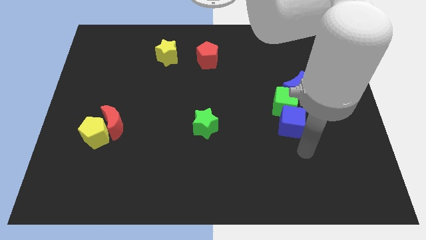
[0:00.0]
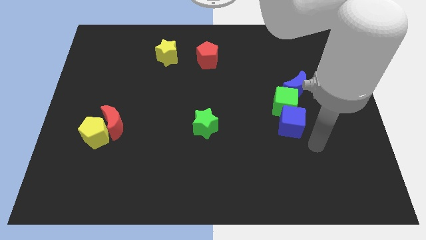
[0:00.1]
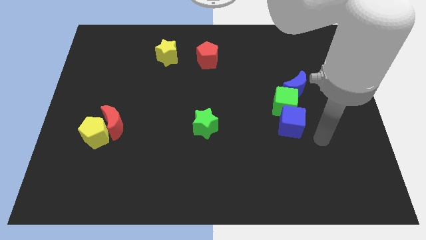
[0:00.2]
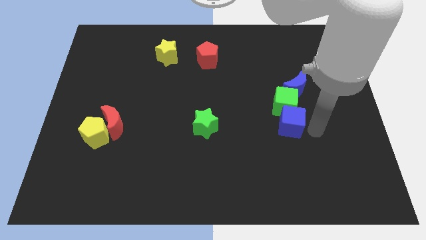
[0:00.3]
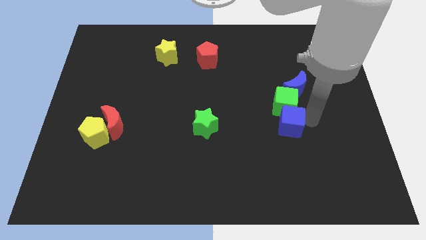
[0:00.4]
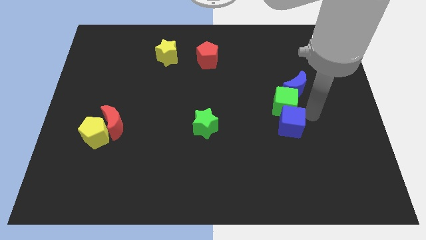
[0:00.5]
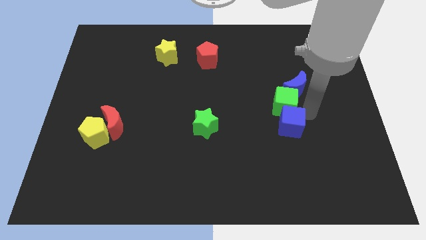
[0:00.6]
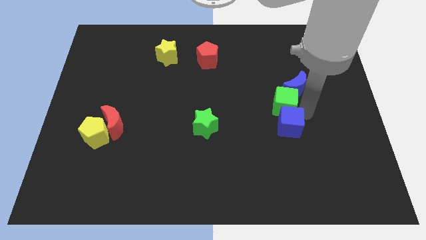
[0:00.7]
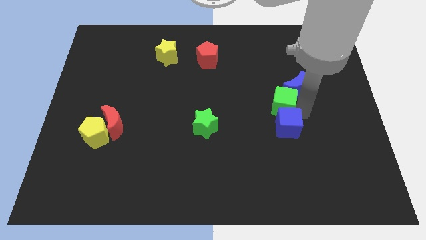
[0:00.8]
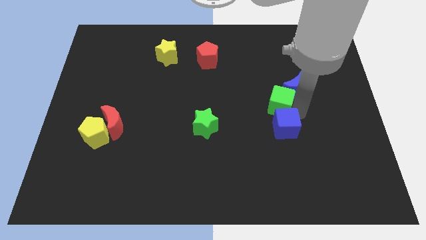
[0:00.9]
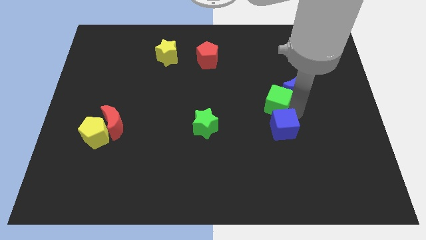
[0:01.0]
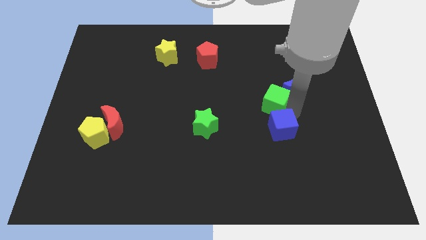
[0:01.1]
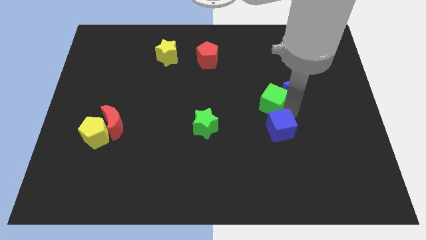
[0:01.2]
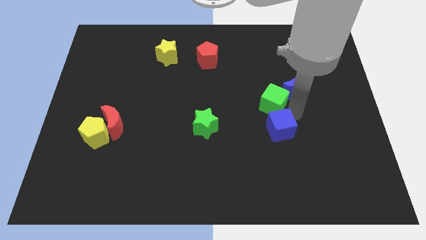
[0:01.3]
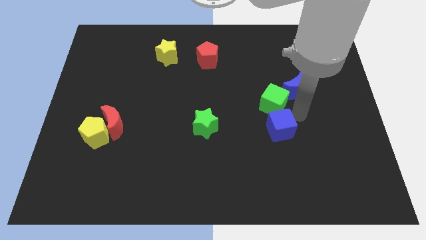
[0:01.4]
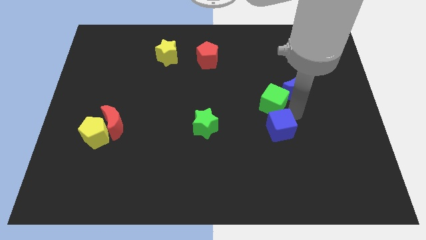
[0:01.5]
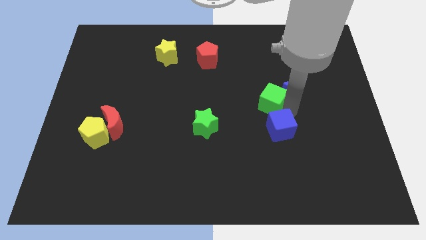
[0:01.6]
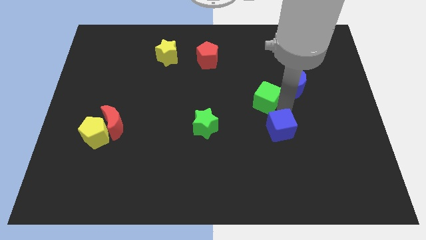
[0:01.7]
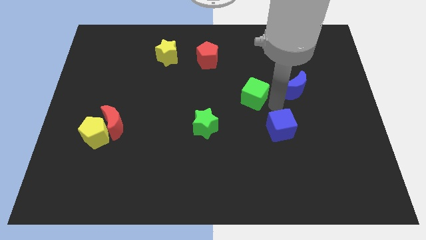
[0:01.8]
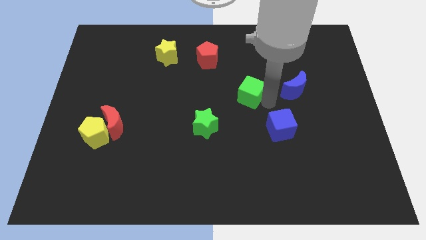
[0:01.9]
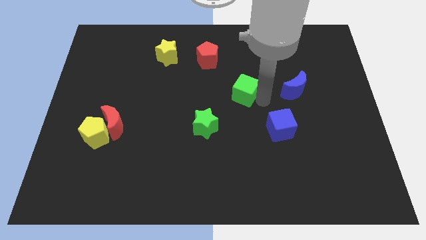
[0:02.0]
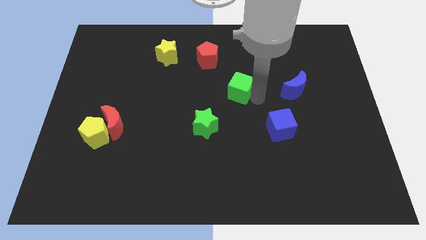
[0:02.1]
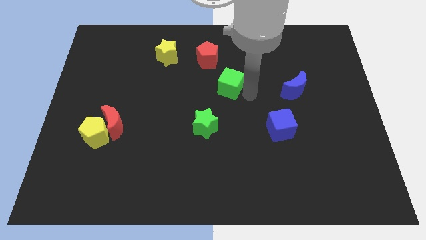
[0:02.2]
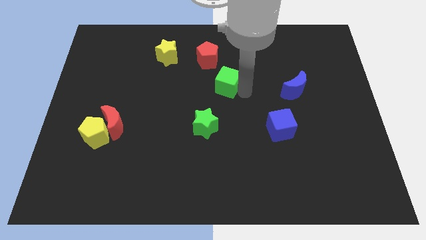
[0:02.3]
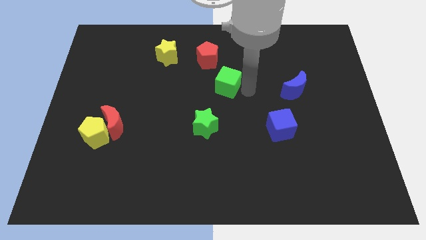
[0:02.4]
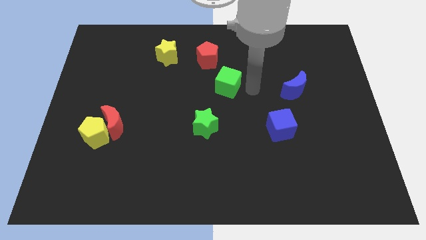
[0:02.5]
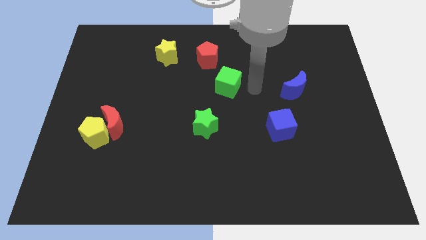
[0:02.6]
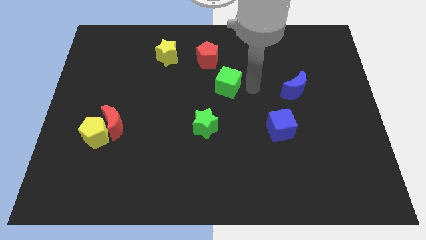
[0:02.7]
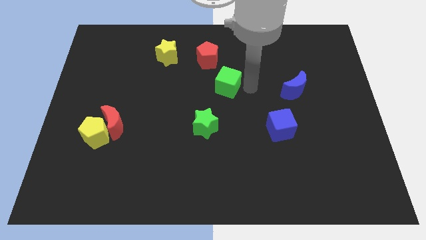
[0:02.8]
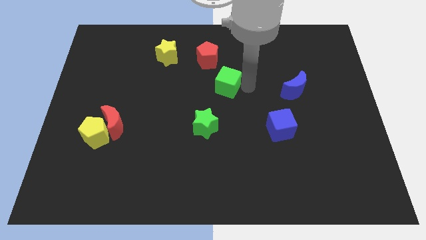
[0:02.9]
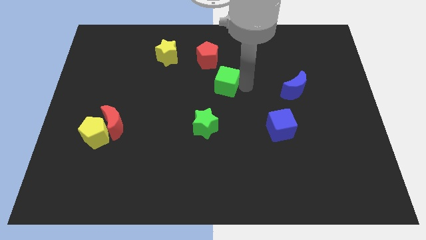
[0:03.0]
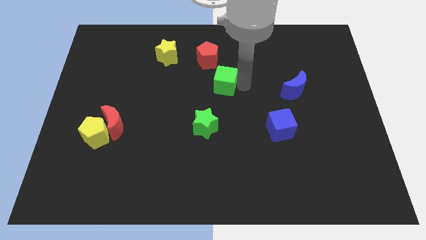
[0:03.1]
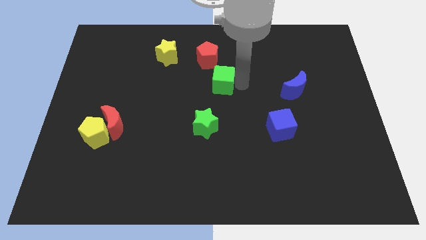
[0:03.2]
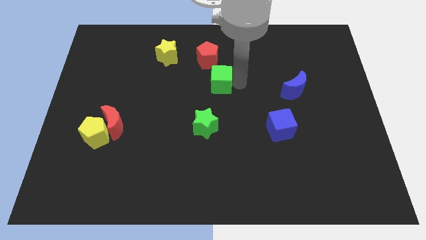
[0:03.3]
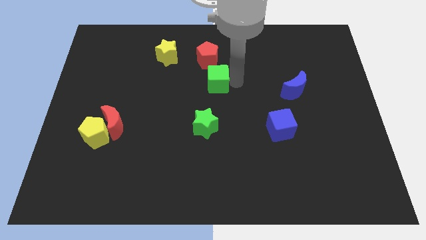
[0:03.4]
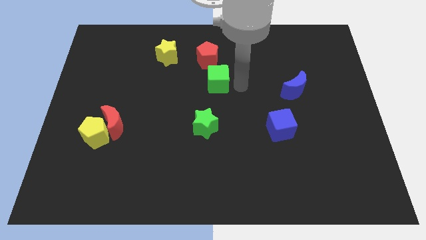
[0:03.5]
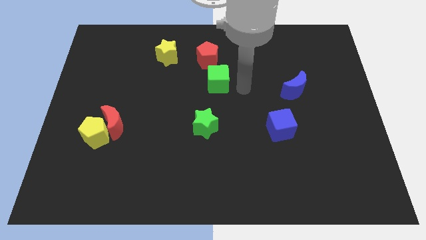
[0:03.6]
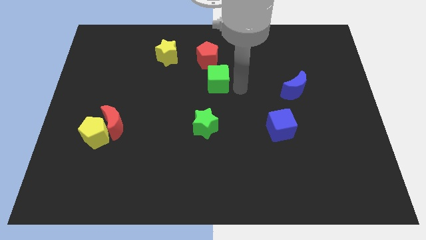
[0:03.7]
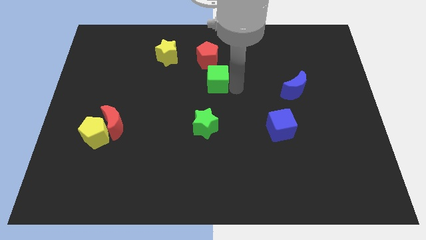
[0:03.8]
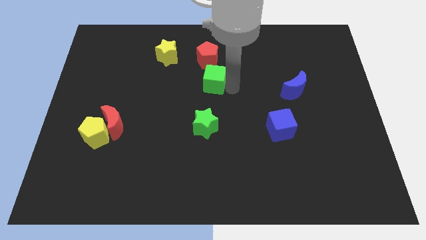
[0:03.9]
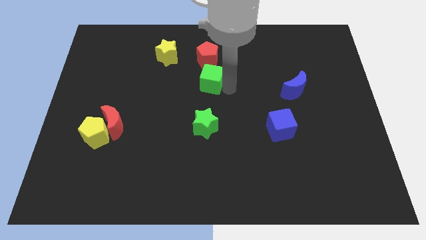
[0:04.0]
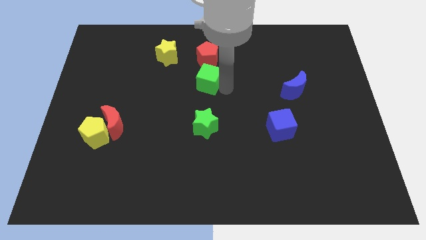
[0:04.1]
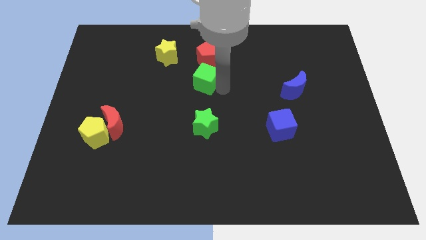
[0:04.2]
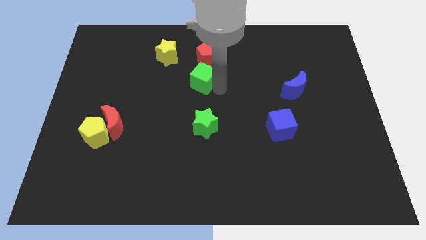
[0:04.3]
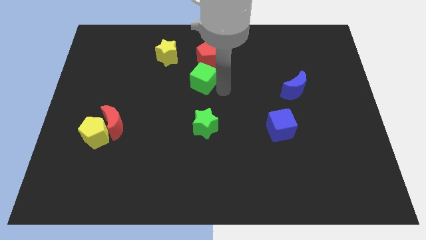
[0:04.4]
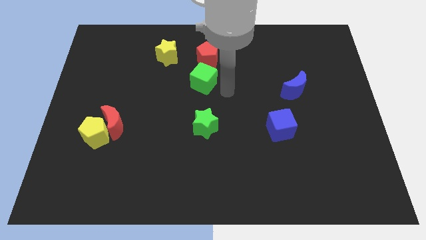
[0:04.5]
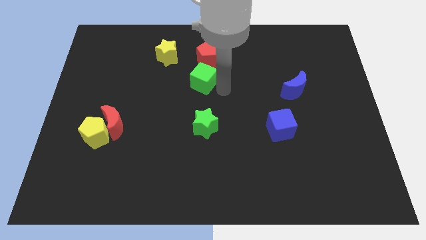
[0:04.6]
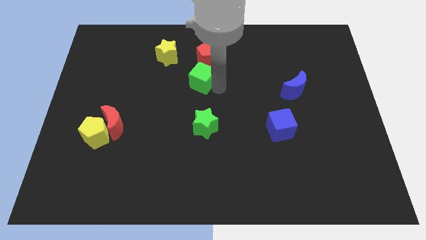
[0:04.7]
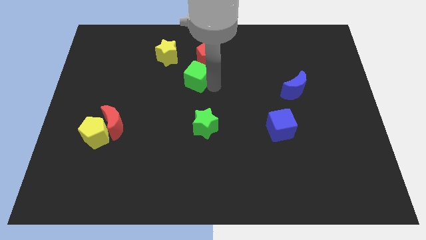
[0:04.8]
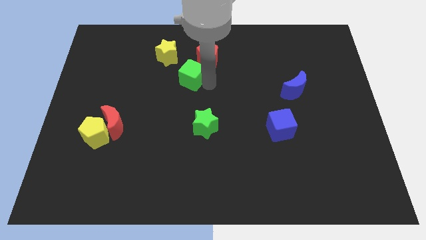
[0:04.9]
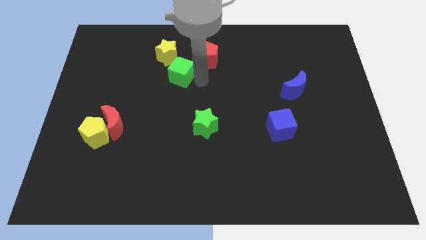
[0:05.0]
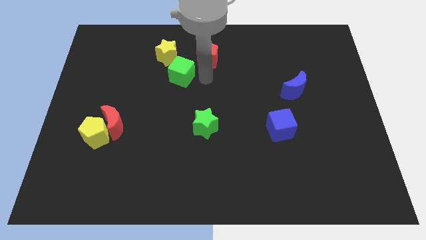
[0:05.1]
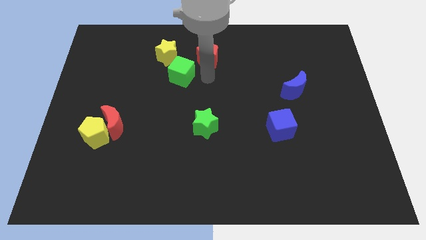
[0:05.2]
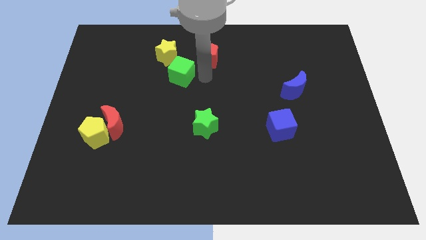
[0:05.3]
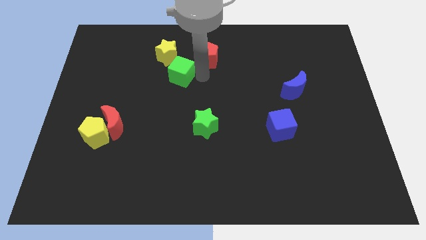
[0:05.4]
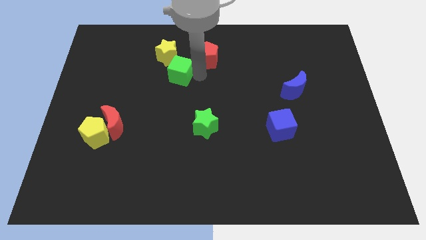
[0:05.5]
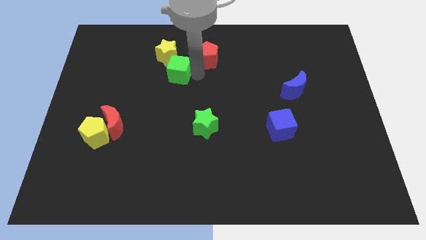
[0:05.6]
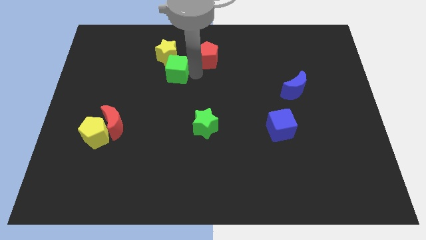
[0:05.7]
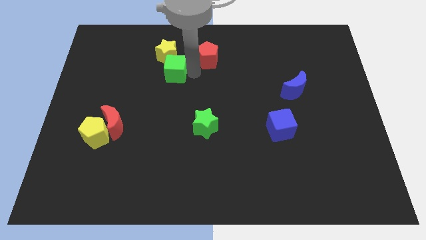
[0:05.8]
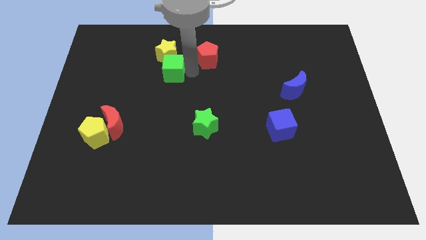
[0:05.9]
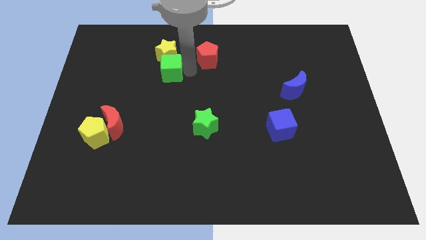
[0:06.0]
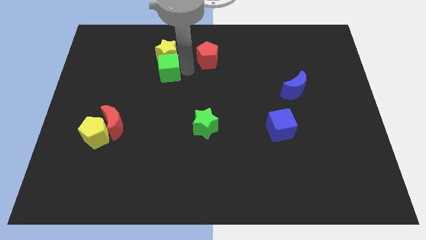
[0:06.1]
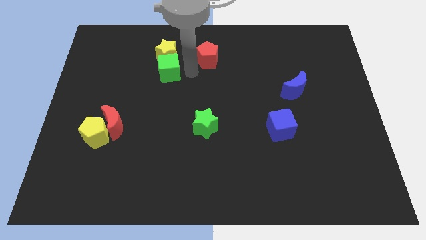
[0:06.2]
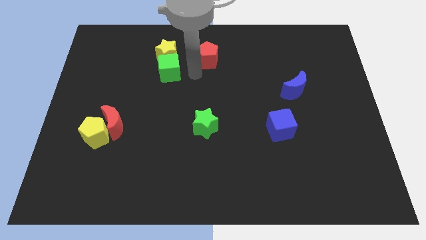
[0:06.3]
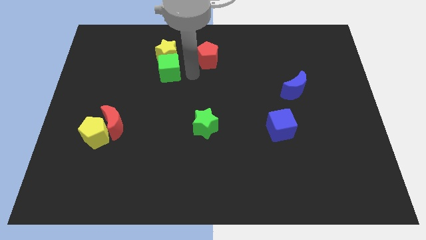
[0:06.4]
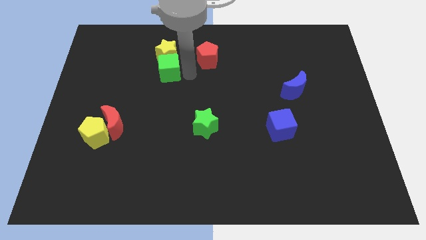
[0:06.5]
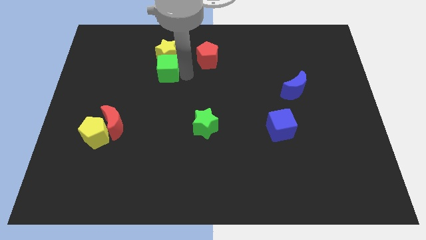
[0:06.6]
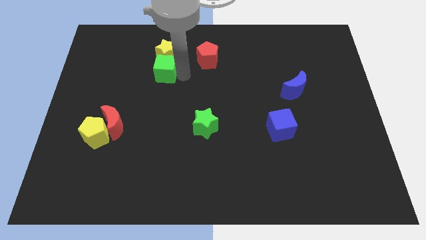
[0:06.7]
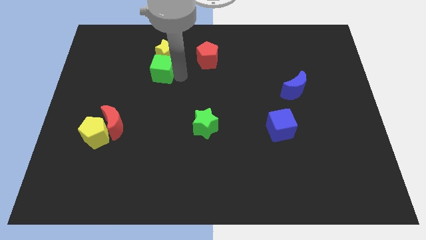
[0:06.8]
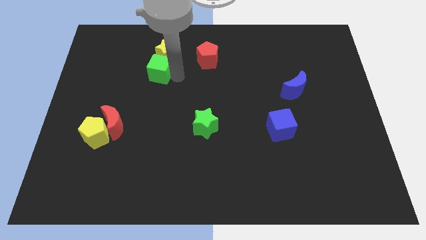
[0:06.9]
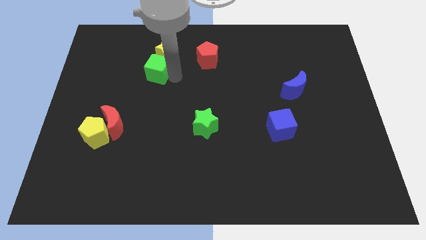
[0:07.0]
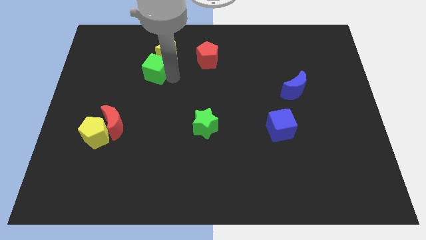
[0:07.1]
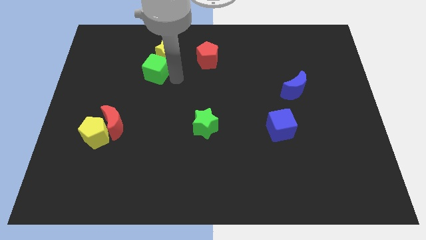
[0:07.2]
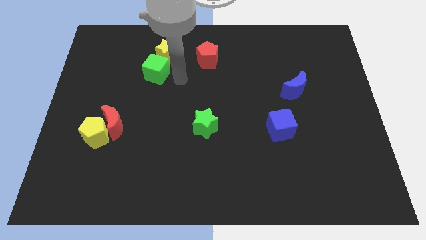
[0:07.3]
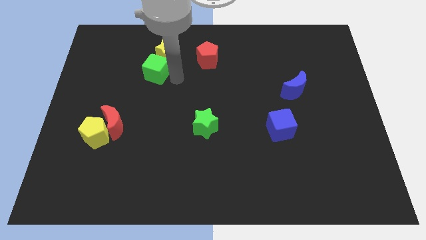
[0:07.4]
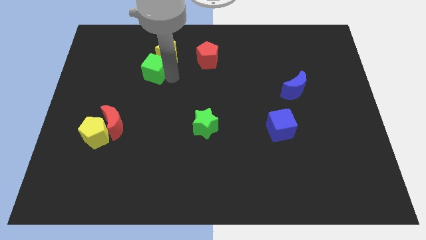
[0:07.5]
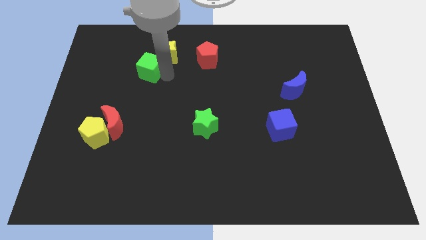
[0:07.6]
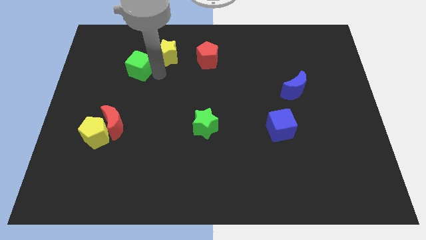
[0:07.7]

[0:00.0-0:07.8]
put the green cube to the left side of the yellow star
